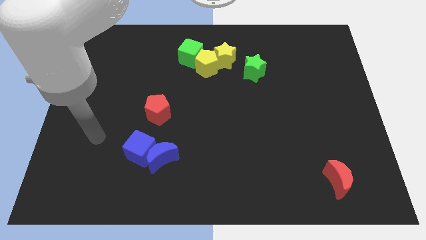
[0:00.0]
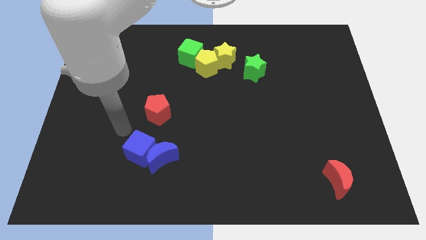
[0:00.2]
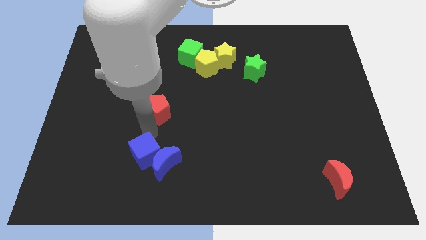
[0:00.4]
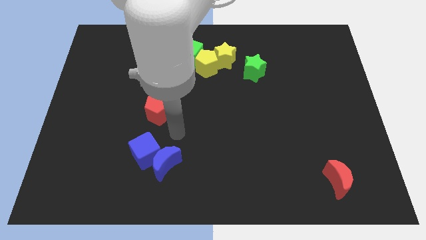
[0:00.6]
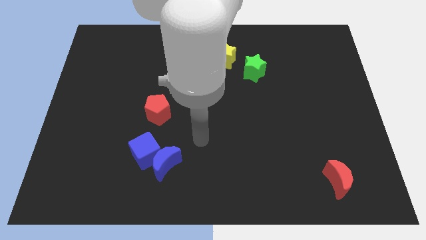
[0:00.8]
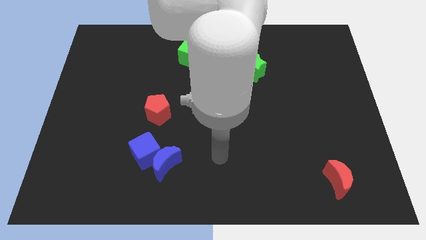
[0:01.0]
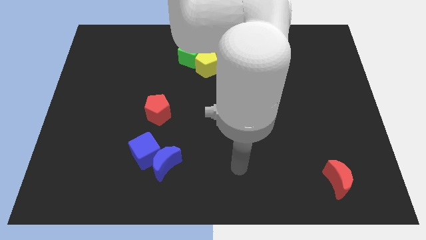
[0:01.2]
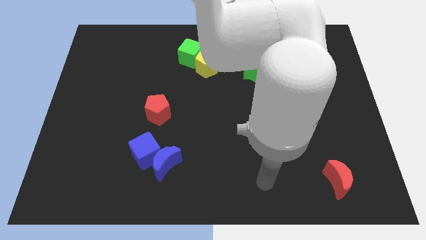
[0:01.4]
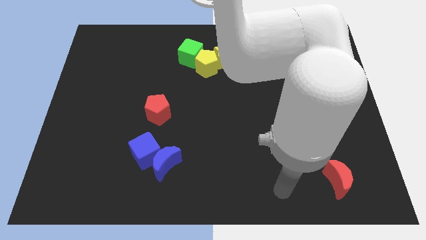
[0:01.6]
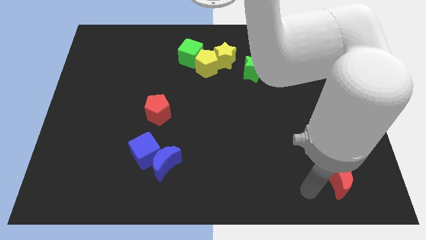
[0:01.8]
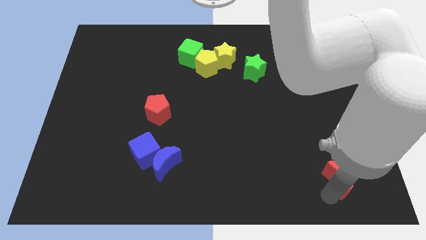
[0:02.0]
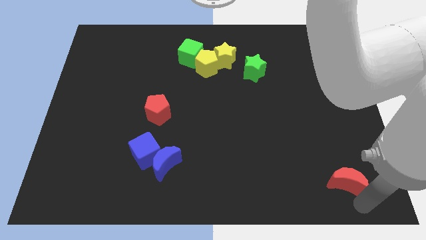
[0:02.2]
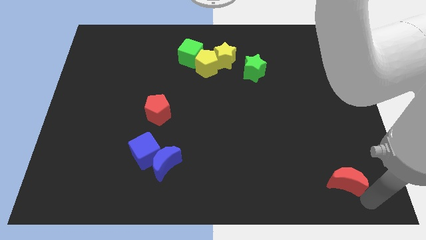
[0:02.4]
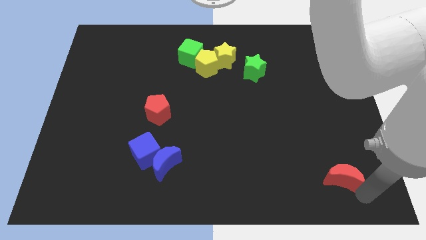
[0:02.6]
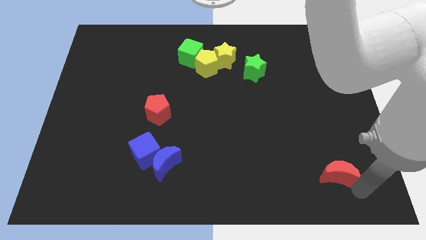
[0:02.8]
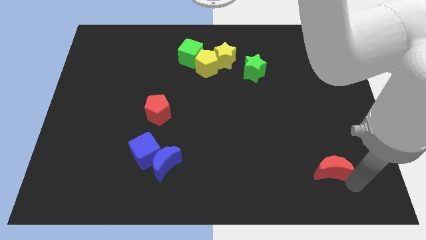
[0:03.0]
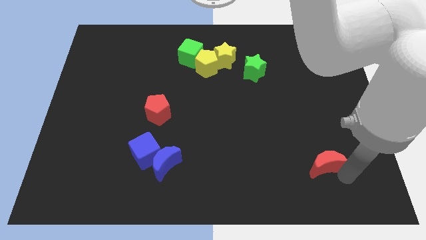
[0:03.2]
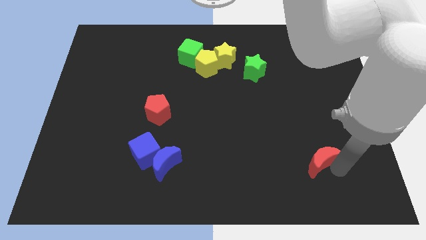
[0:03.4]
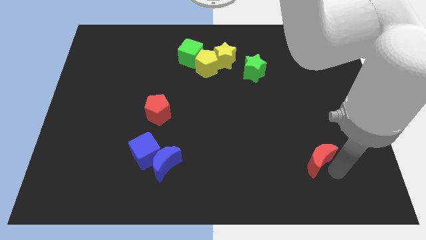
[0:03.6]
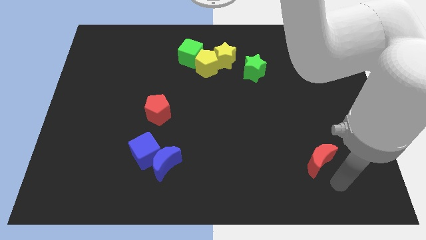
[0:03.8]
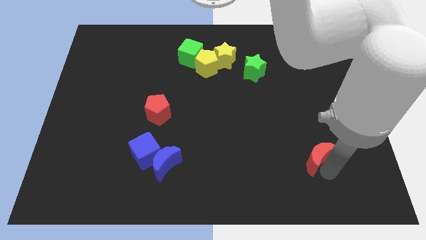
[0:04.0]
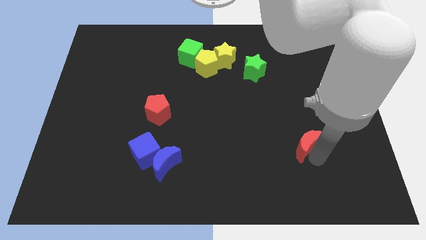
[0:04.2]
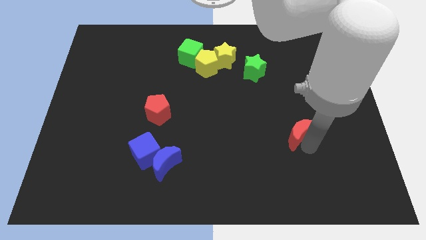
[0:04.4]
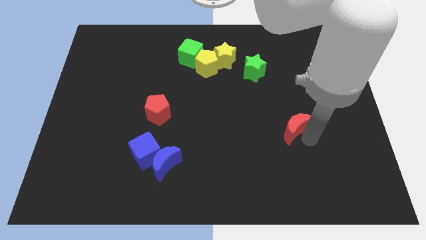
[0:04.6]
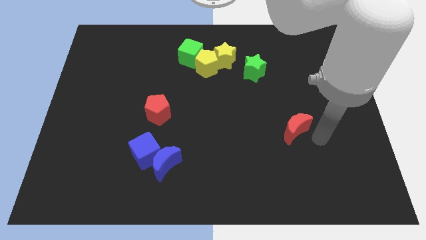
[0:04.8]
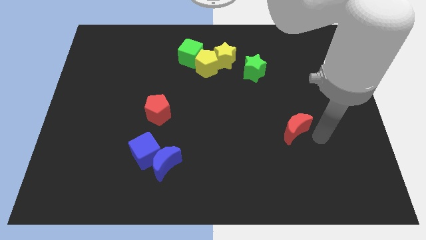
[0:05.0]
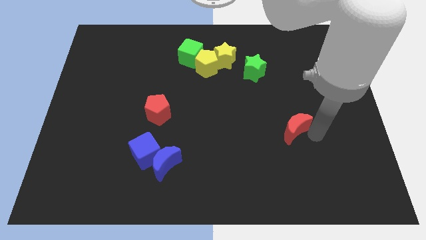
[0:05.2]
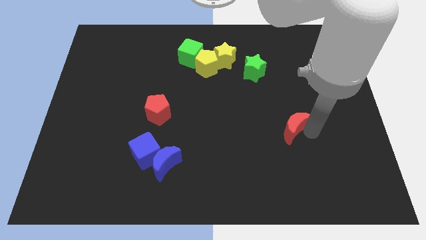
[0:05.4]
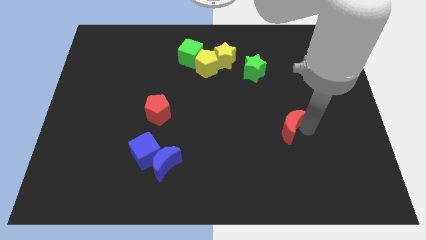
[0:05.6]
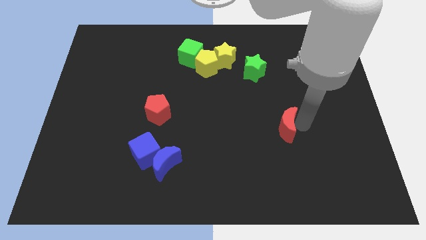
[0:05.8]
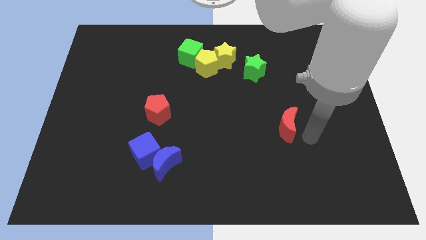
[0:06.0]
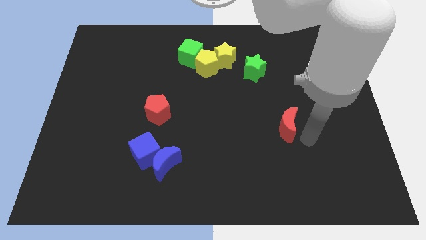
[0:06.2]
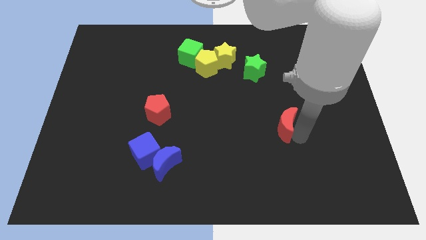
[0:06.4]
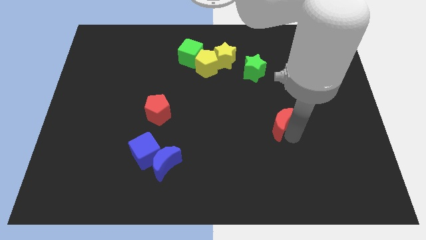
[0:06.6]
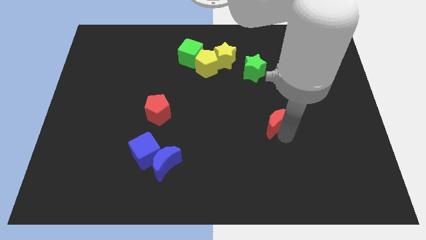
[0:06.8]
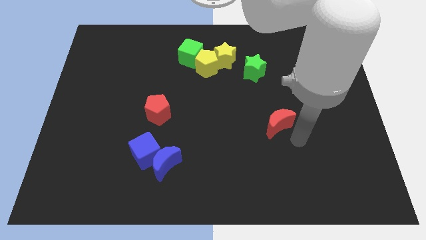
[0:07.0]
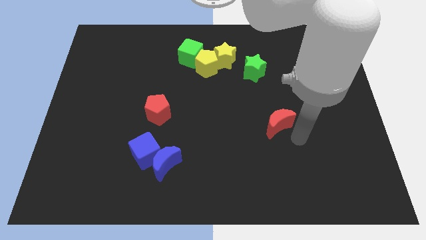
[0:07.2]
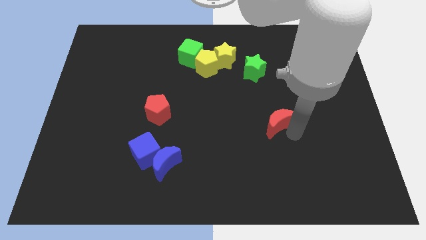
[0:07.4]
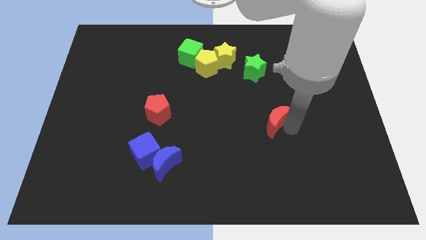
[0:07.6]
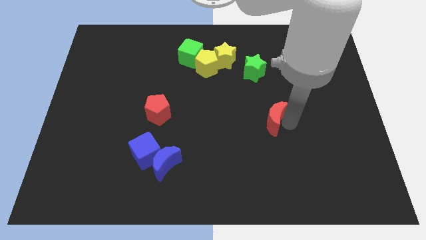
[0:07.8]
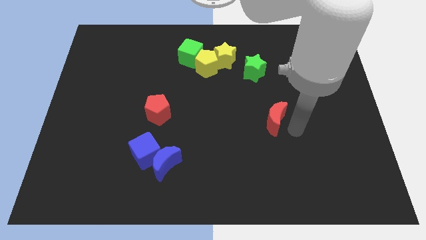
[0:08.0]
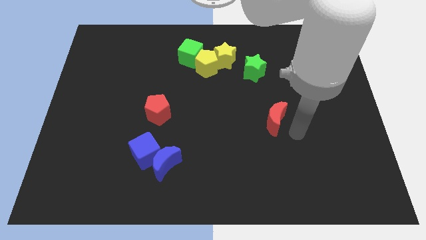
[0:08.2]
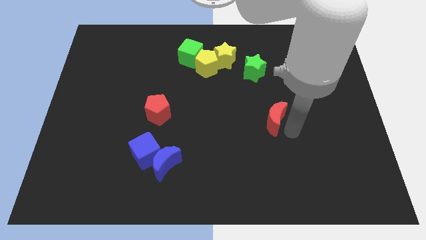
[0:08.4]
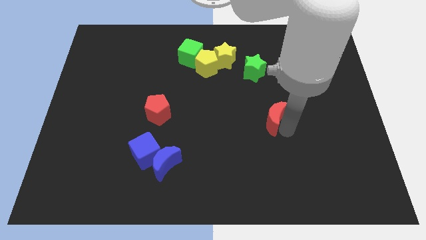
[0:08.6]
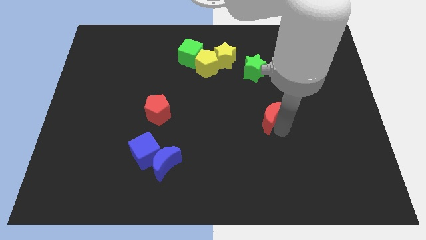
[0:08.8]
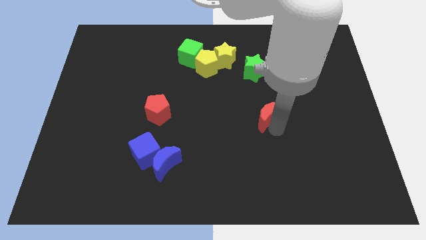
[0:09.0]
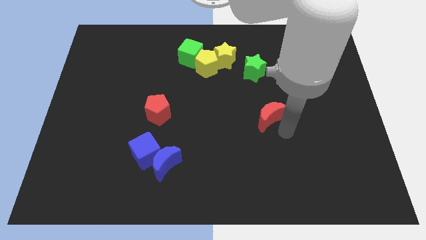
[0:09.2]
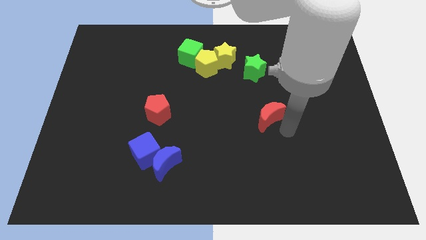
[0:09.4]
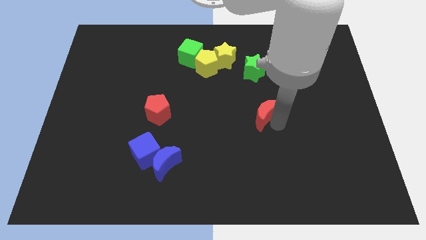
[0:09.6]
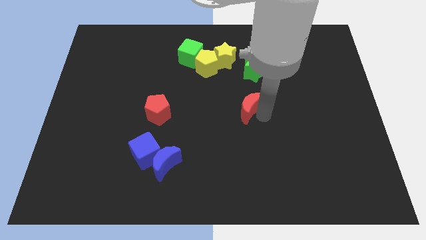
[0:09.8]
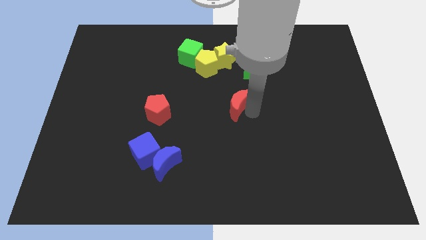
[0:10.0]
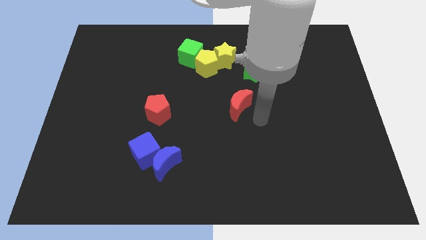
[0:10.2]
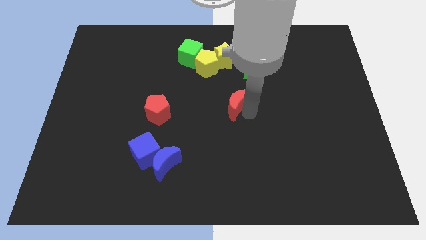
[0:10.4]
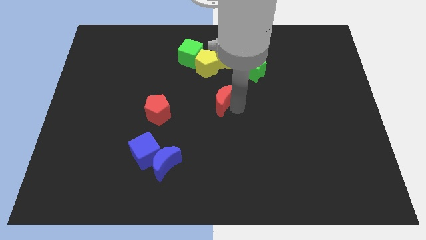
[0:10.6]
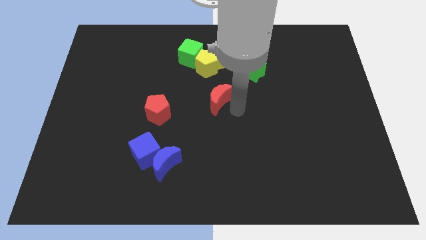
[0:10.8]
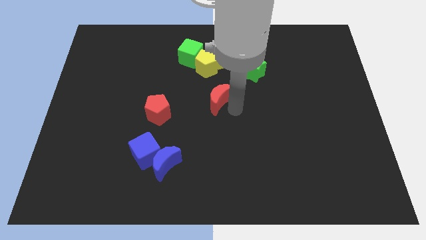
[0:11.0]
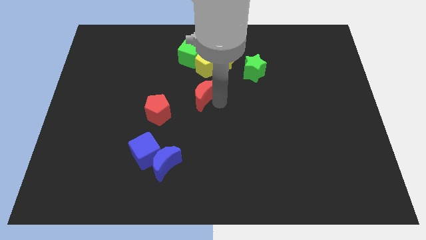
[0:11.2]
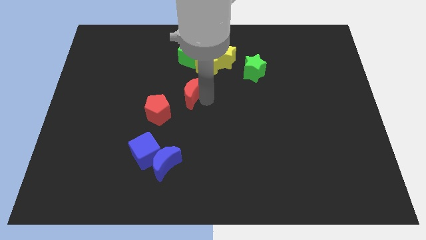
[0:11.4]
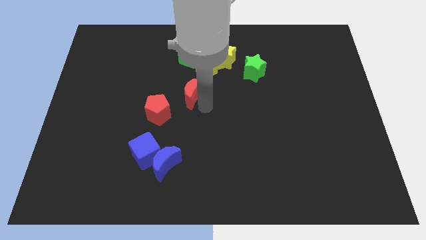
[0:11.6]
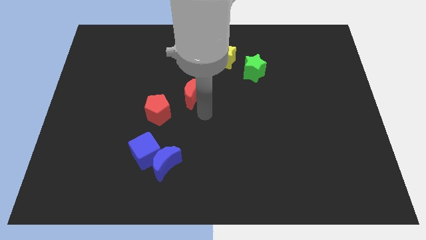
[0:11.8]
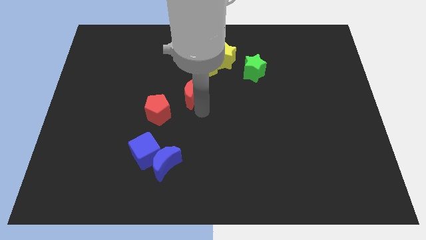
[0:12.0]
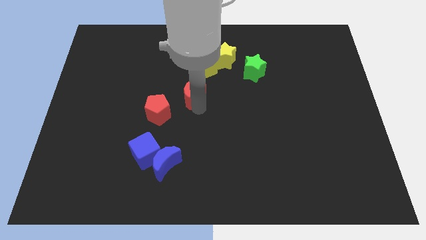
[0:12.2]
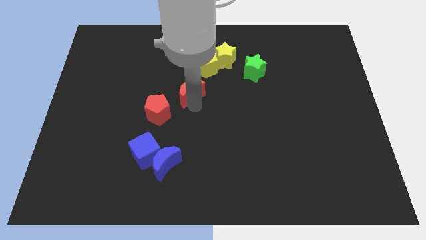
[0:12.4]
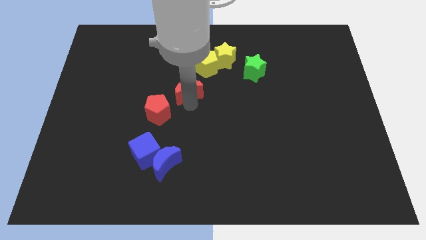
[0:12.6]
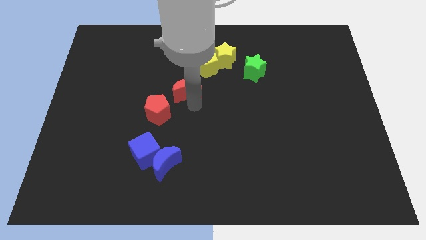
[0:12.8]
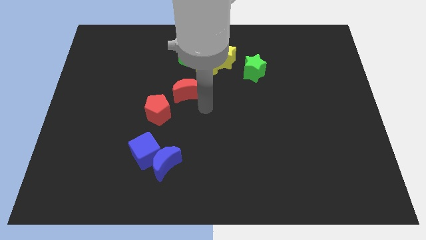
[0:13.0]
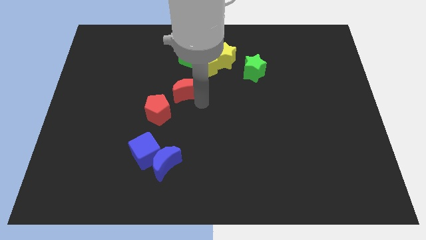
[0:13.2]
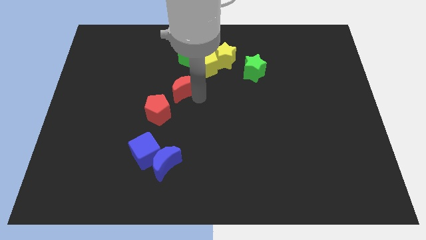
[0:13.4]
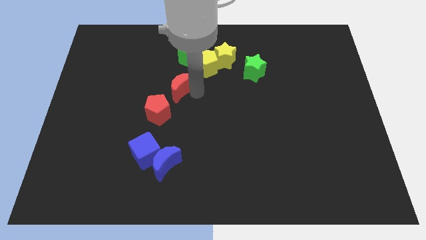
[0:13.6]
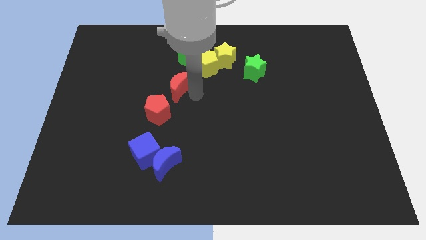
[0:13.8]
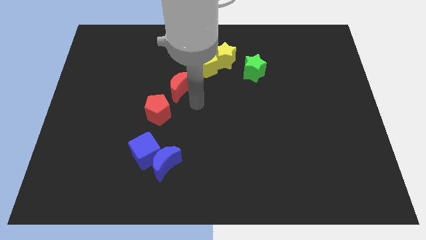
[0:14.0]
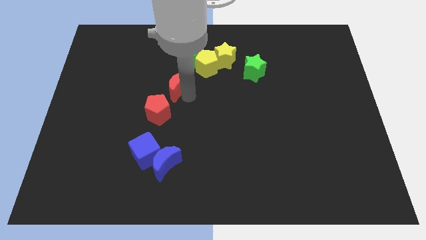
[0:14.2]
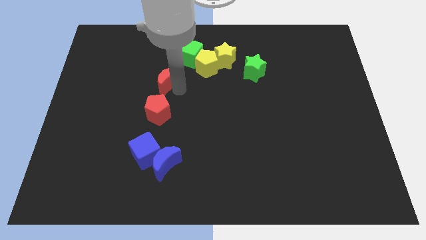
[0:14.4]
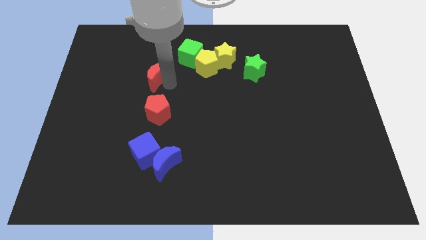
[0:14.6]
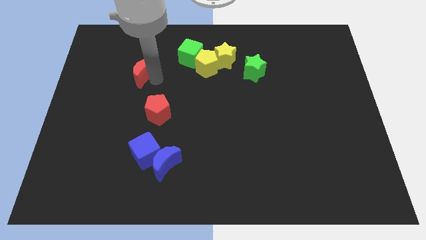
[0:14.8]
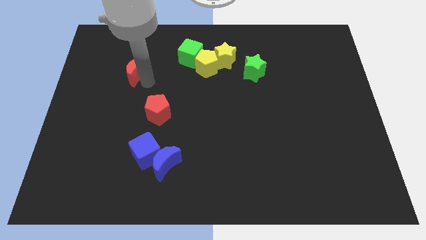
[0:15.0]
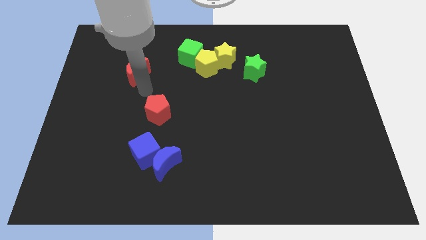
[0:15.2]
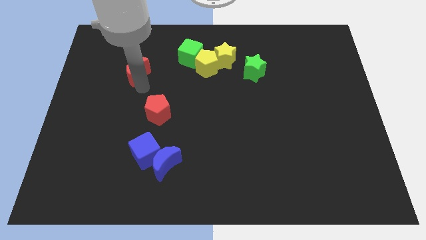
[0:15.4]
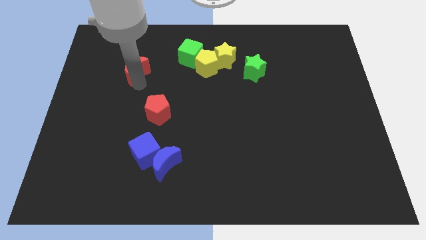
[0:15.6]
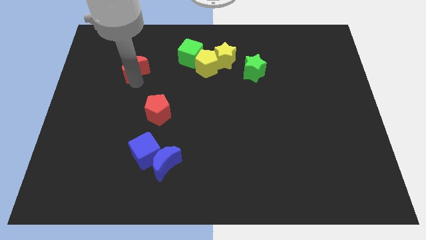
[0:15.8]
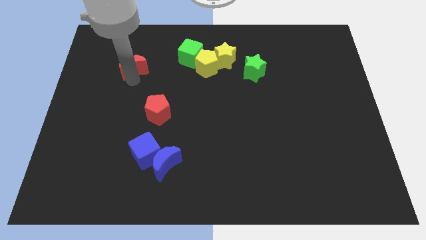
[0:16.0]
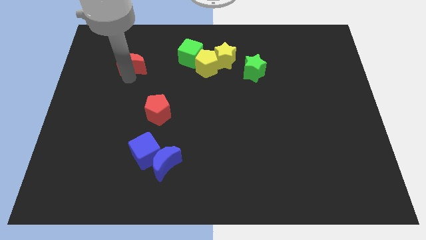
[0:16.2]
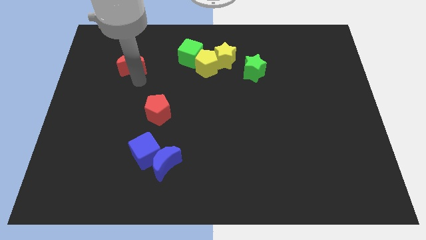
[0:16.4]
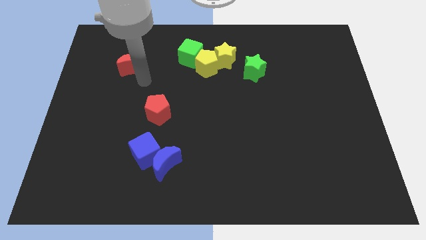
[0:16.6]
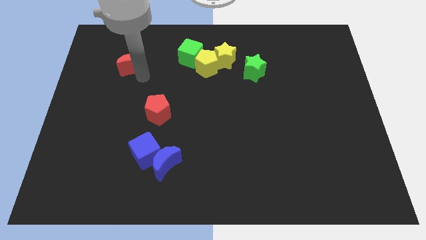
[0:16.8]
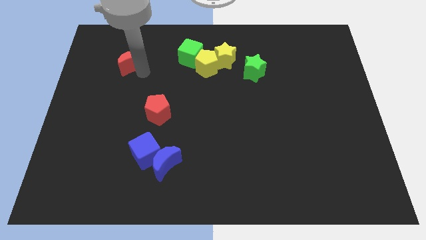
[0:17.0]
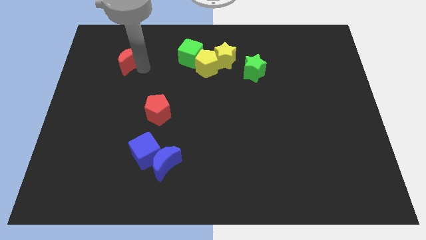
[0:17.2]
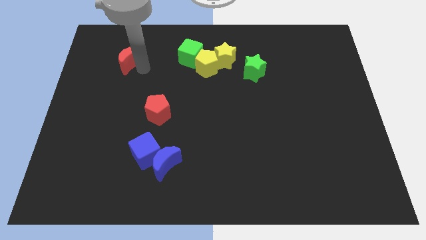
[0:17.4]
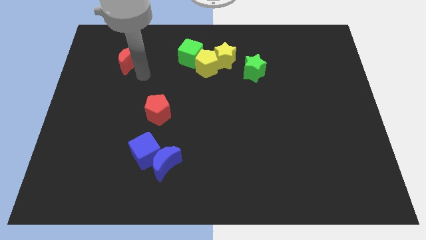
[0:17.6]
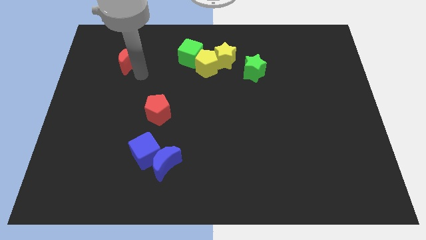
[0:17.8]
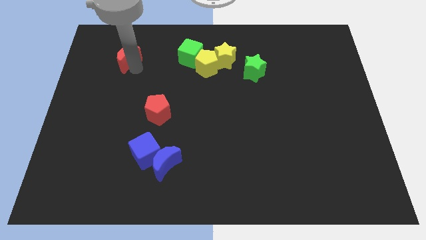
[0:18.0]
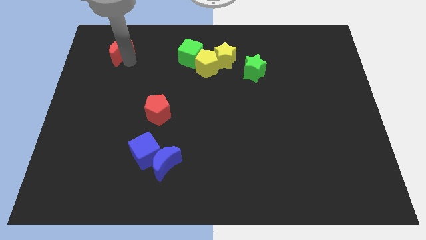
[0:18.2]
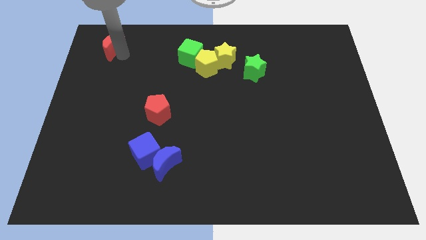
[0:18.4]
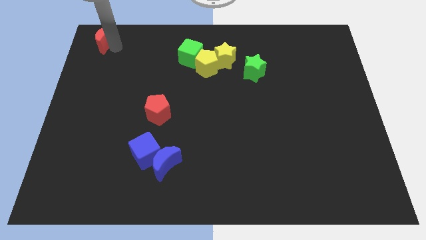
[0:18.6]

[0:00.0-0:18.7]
put the red moon to the top left
